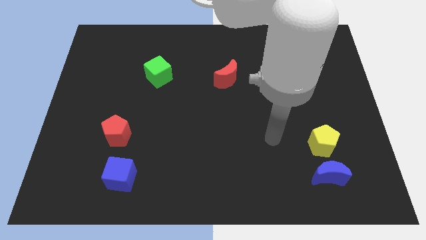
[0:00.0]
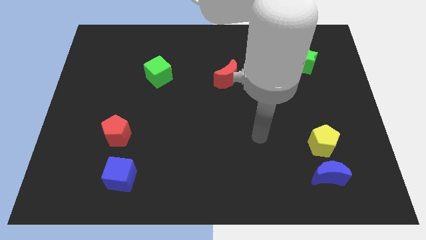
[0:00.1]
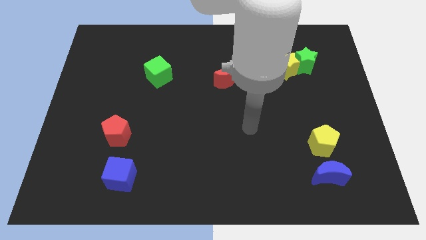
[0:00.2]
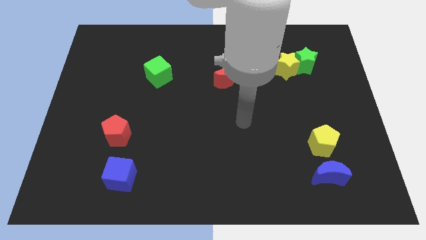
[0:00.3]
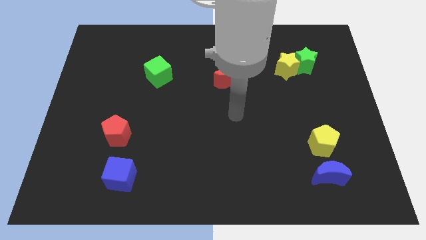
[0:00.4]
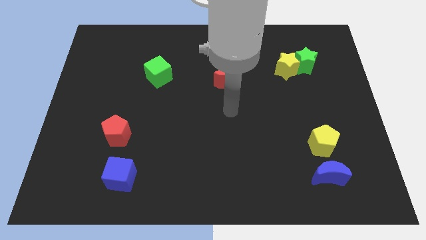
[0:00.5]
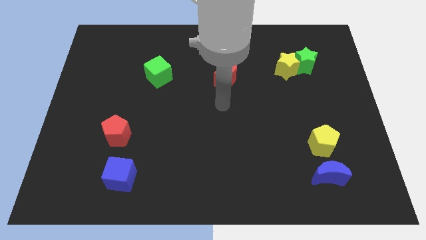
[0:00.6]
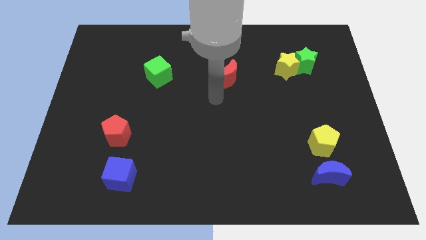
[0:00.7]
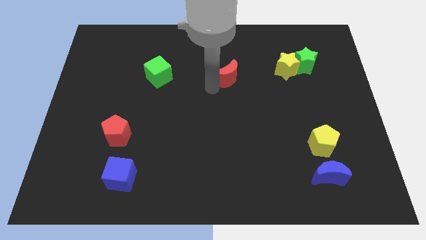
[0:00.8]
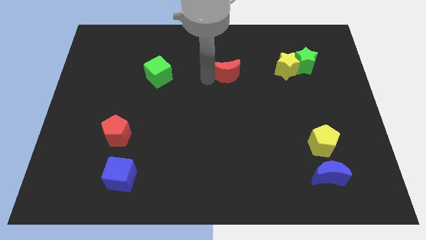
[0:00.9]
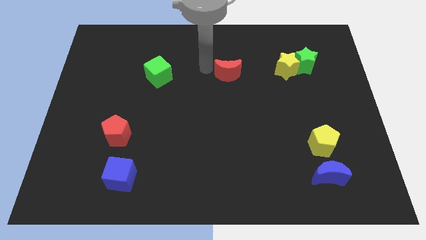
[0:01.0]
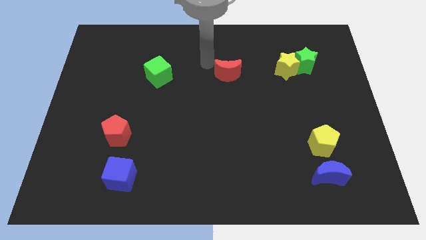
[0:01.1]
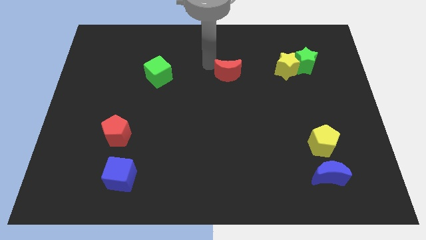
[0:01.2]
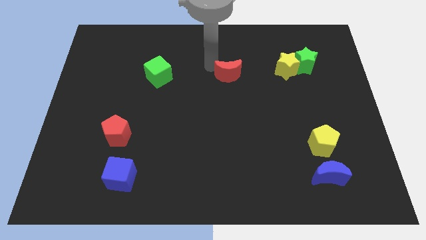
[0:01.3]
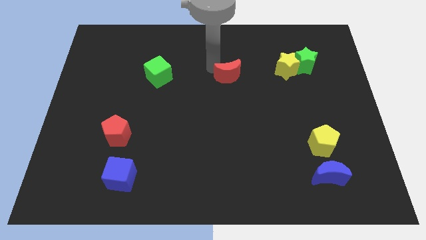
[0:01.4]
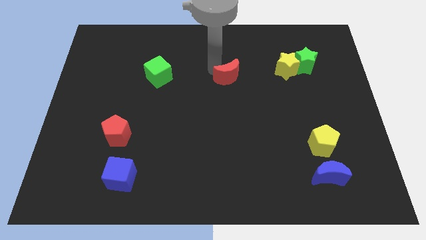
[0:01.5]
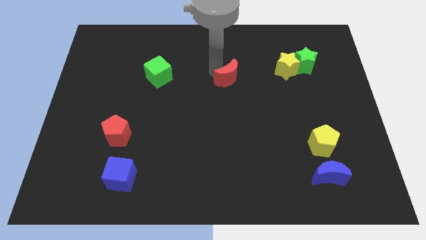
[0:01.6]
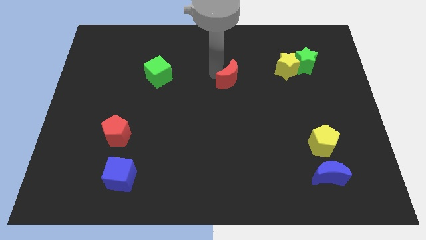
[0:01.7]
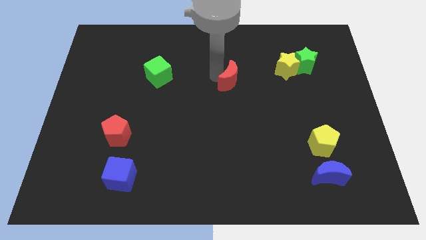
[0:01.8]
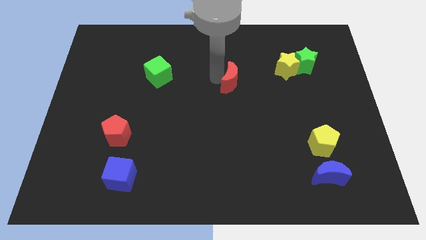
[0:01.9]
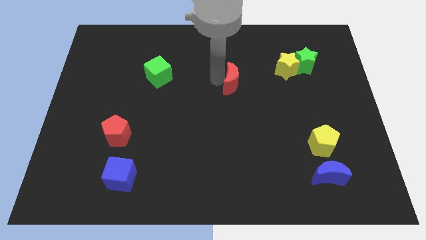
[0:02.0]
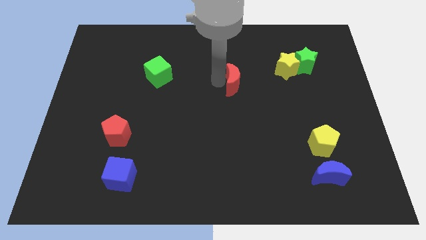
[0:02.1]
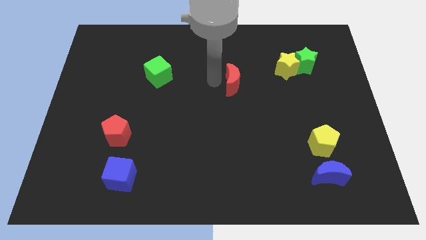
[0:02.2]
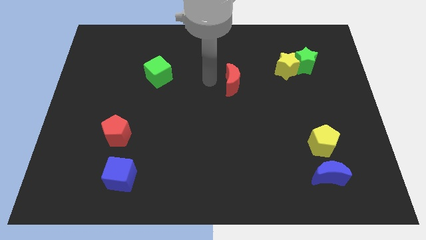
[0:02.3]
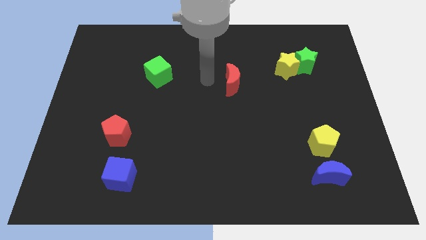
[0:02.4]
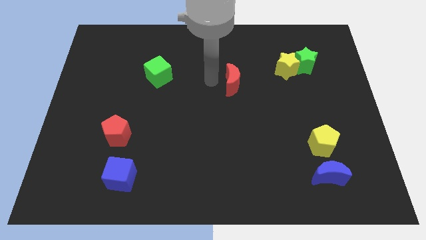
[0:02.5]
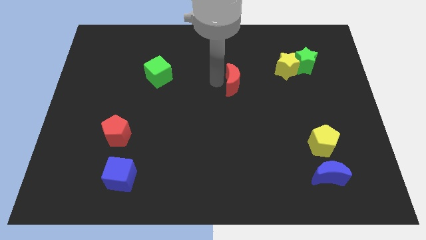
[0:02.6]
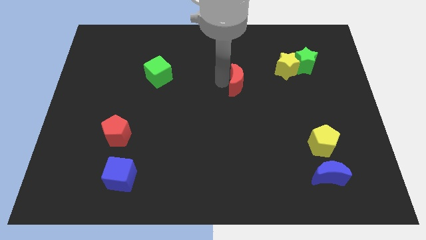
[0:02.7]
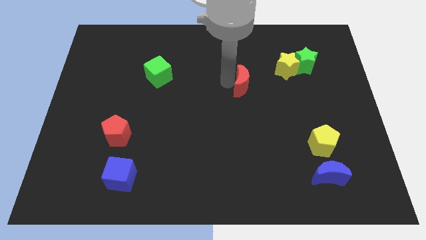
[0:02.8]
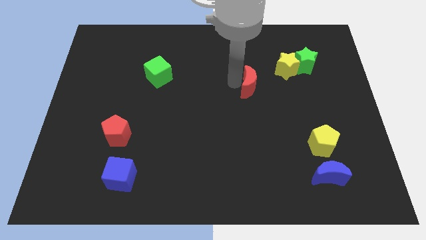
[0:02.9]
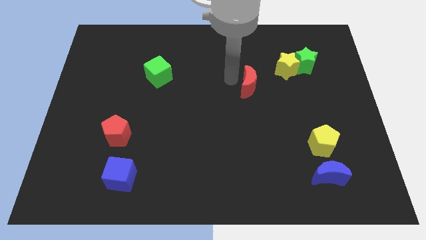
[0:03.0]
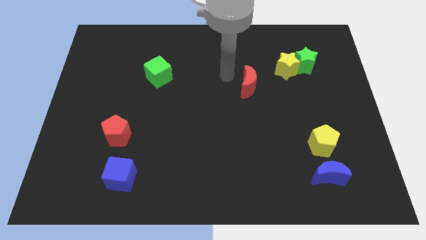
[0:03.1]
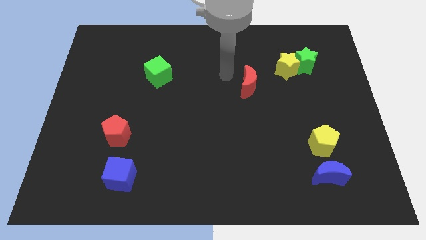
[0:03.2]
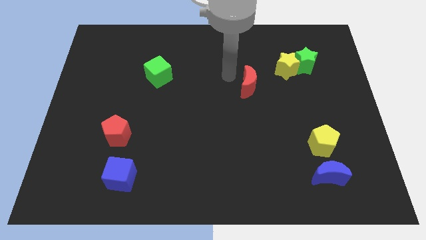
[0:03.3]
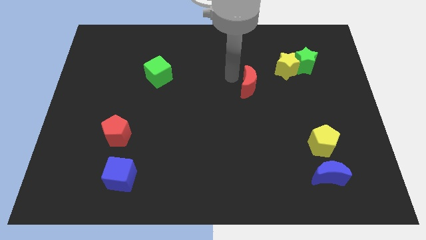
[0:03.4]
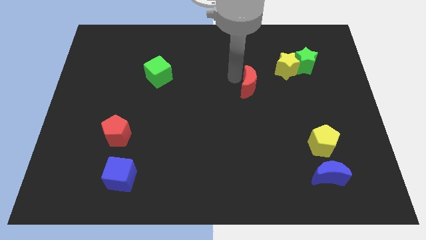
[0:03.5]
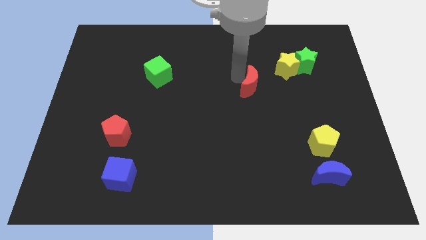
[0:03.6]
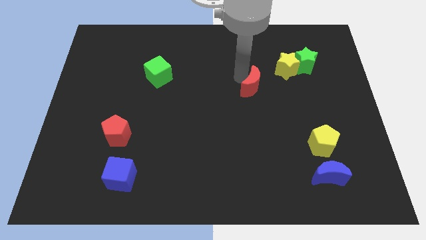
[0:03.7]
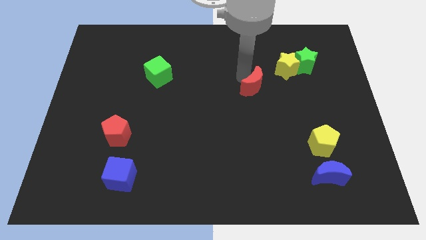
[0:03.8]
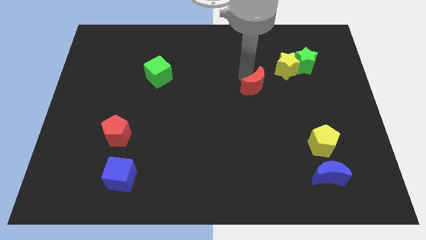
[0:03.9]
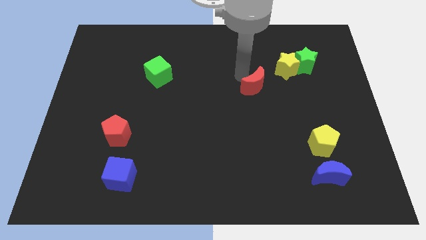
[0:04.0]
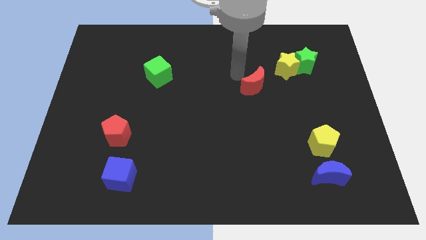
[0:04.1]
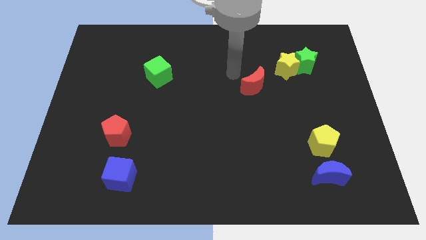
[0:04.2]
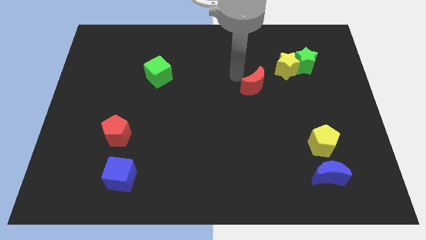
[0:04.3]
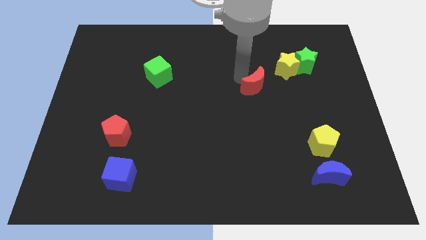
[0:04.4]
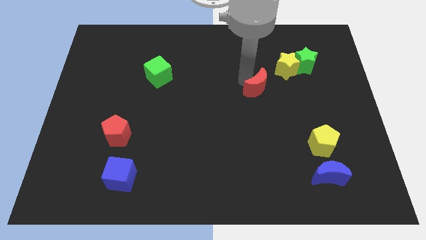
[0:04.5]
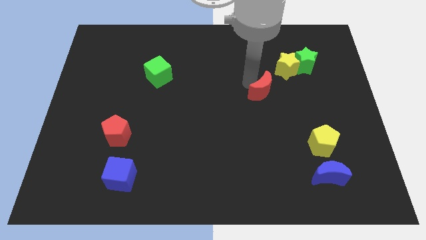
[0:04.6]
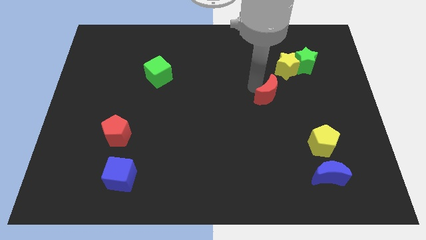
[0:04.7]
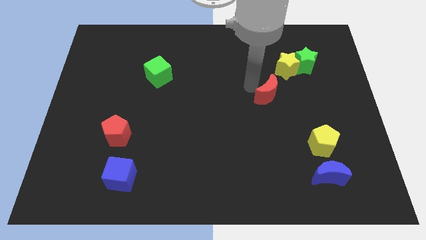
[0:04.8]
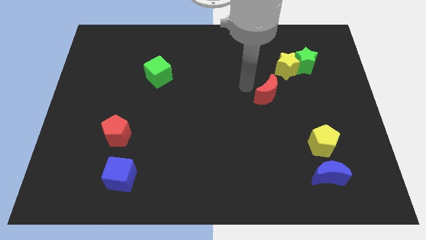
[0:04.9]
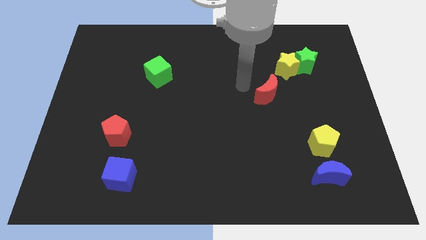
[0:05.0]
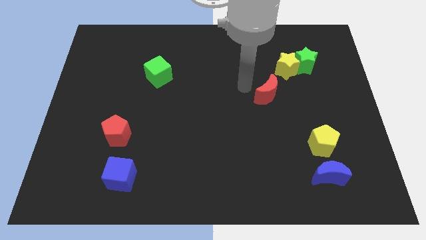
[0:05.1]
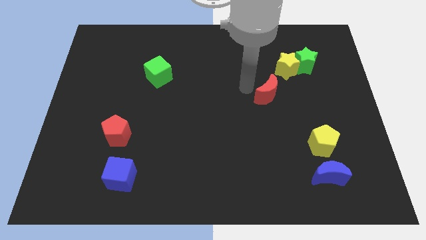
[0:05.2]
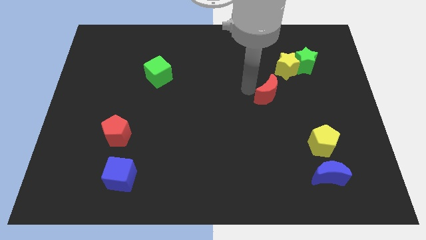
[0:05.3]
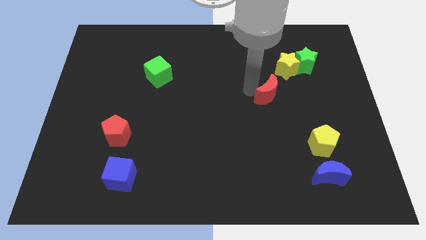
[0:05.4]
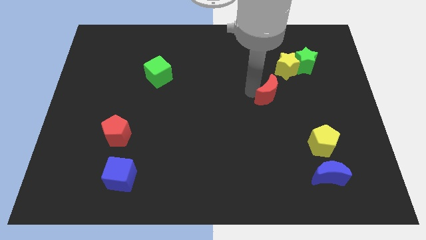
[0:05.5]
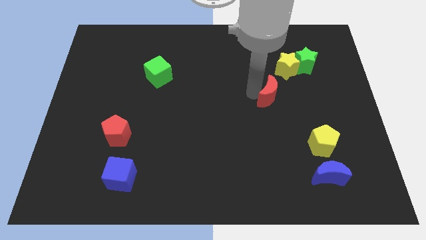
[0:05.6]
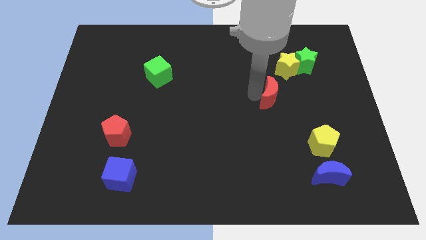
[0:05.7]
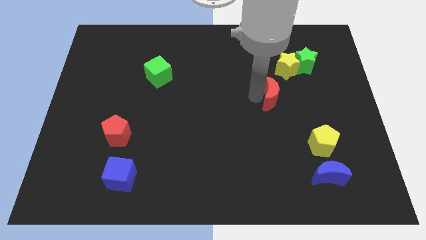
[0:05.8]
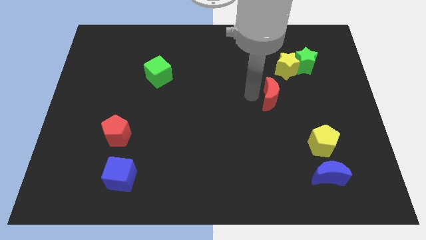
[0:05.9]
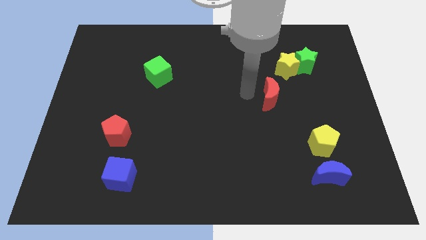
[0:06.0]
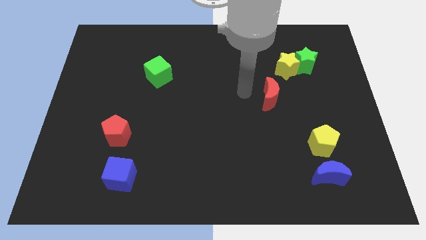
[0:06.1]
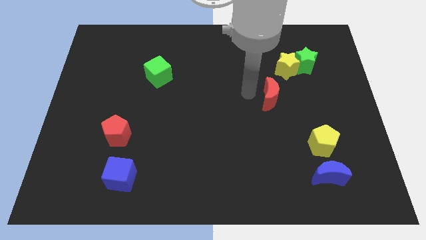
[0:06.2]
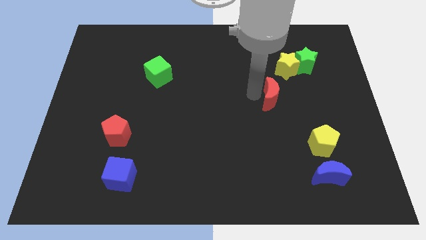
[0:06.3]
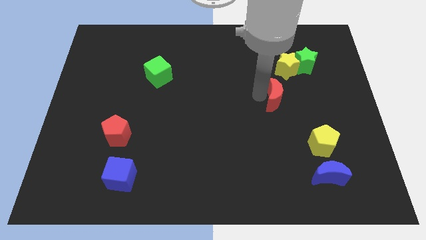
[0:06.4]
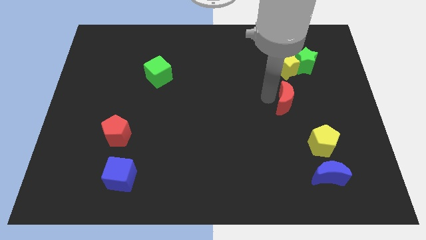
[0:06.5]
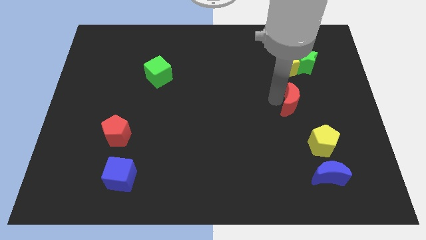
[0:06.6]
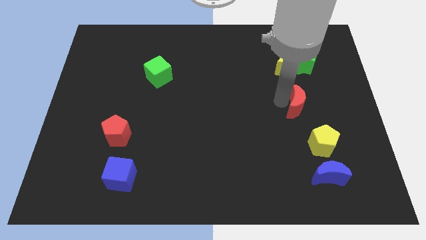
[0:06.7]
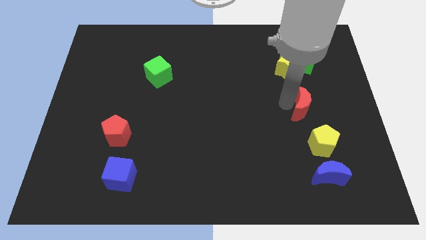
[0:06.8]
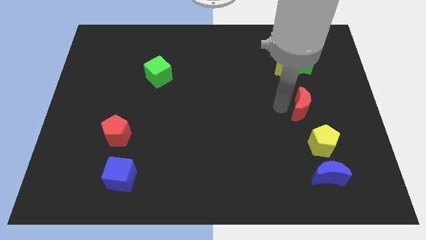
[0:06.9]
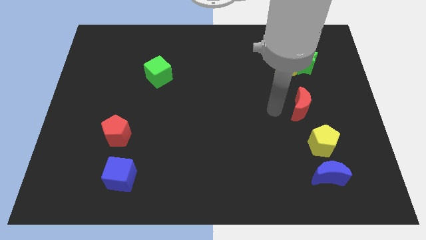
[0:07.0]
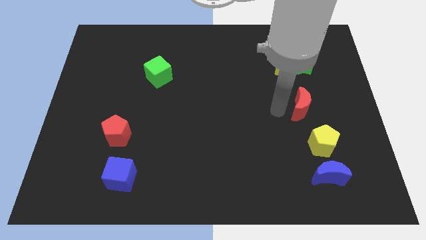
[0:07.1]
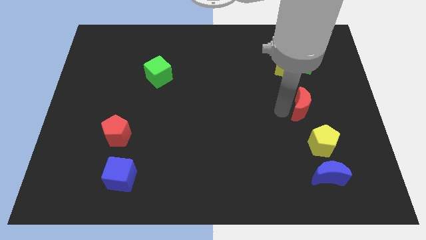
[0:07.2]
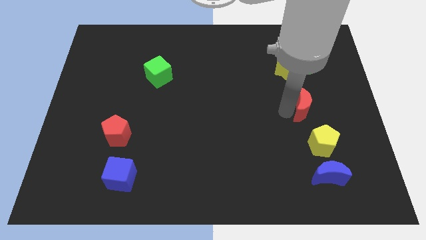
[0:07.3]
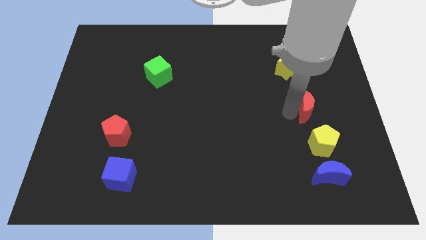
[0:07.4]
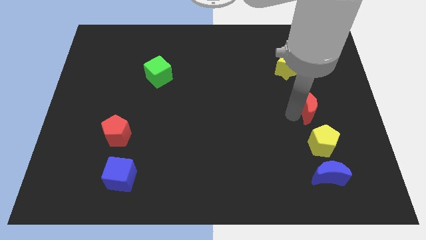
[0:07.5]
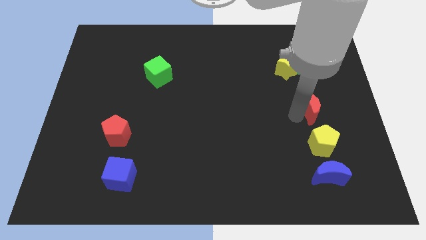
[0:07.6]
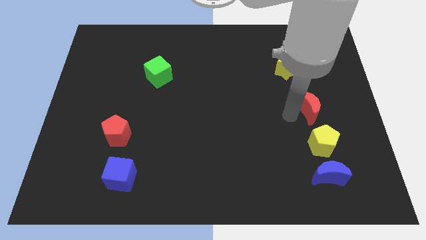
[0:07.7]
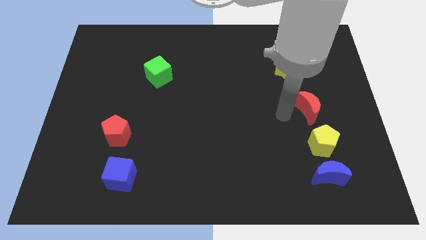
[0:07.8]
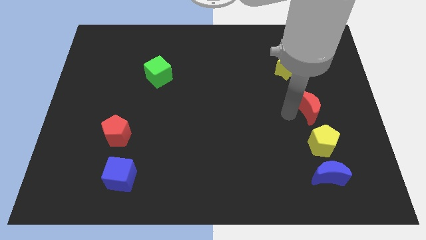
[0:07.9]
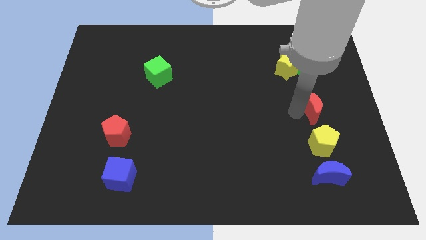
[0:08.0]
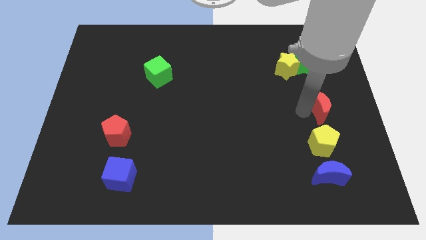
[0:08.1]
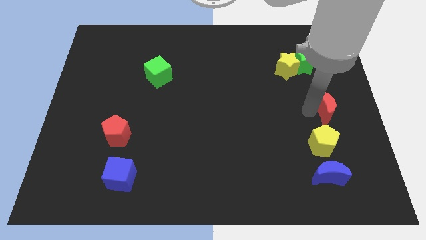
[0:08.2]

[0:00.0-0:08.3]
move the red moon to the right side

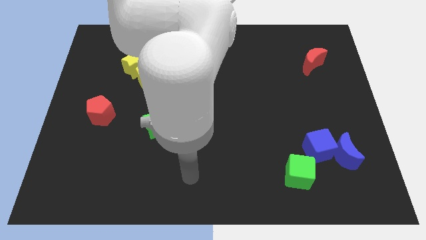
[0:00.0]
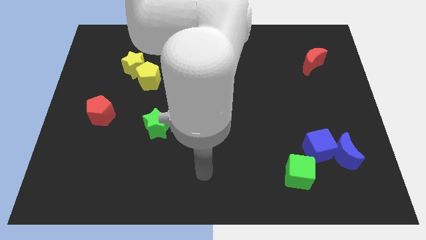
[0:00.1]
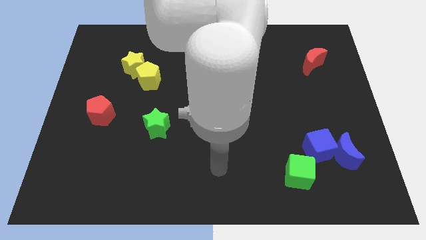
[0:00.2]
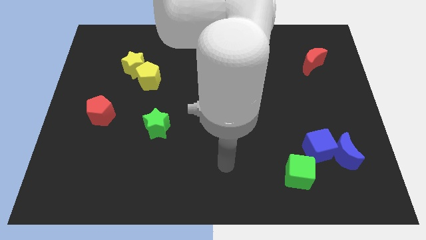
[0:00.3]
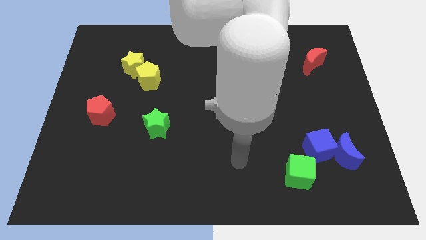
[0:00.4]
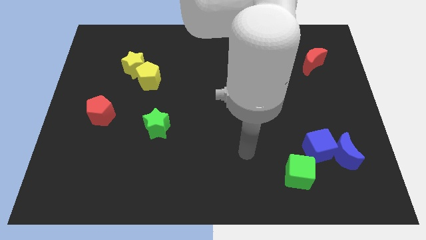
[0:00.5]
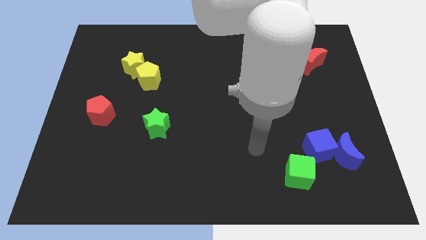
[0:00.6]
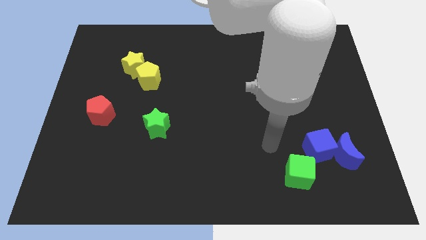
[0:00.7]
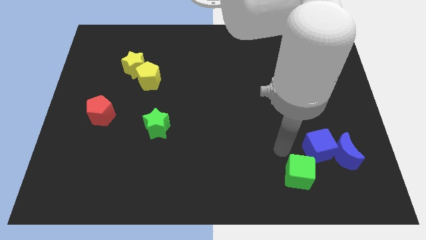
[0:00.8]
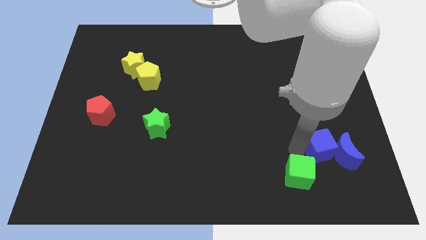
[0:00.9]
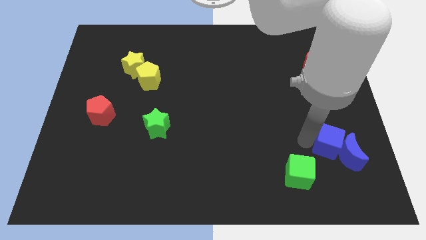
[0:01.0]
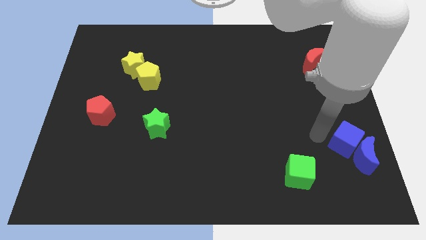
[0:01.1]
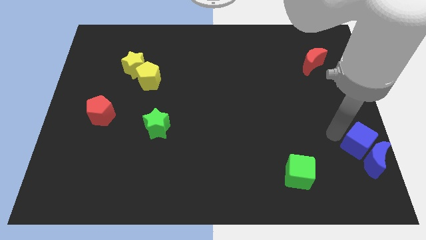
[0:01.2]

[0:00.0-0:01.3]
slide the blue moon to the bottom right of the board
